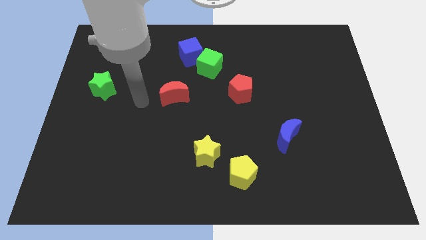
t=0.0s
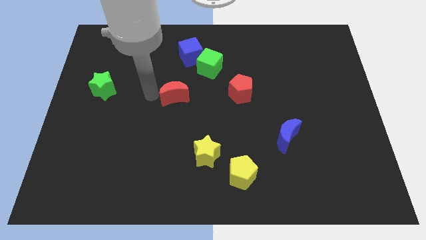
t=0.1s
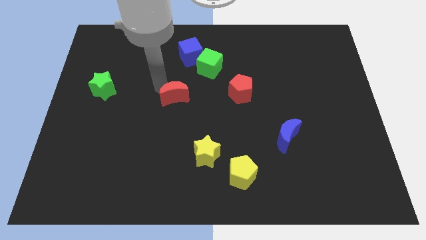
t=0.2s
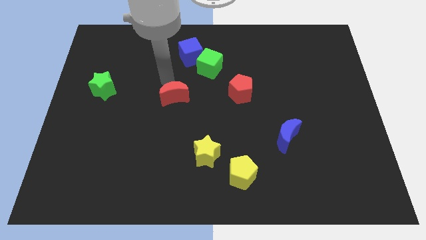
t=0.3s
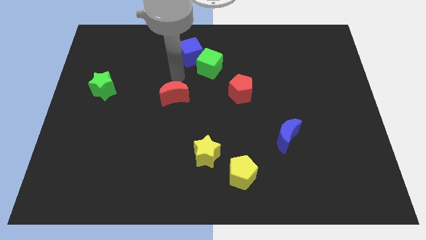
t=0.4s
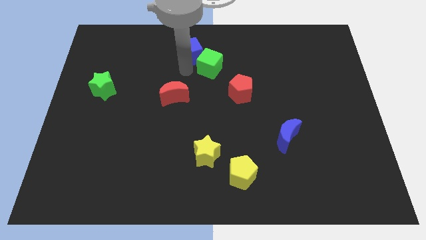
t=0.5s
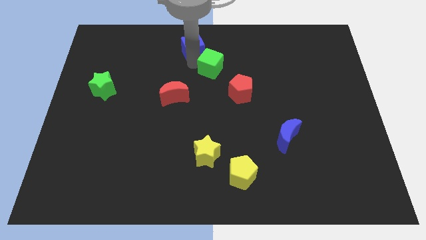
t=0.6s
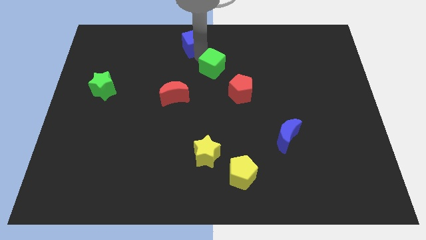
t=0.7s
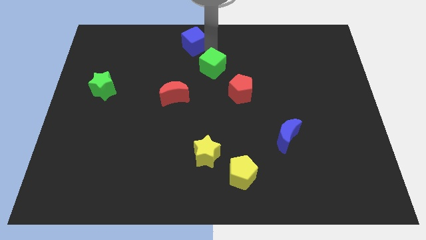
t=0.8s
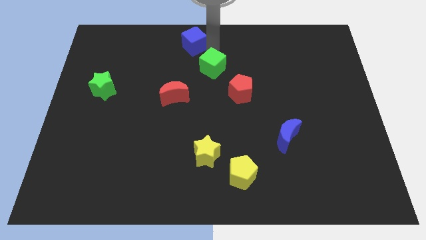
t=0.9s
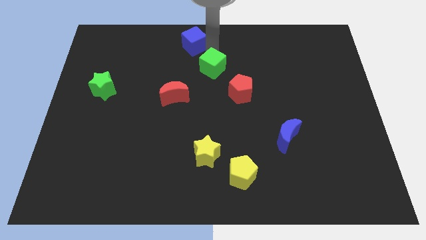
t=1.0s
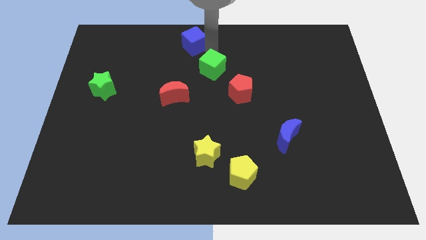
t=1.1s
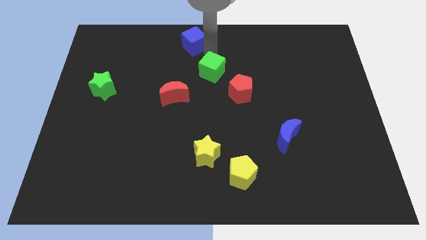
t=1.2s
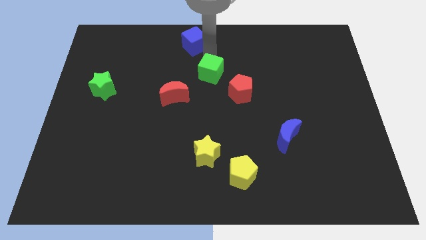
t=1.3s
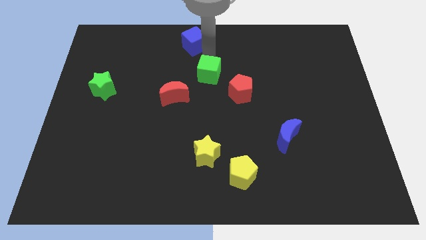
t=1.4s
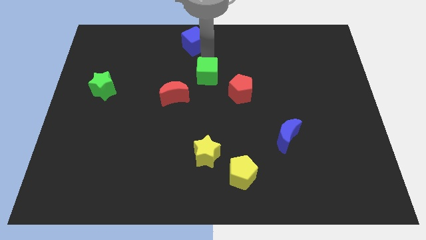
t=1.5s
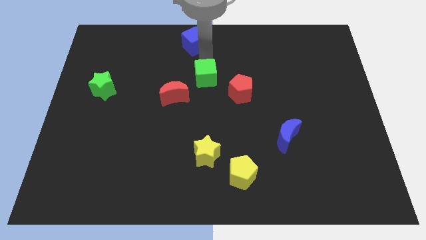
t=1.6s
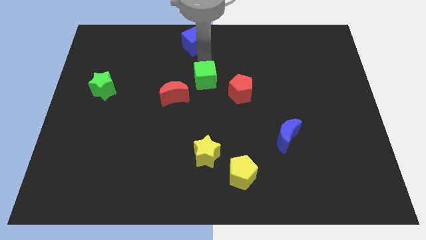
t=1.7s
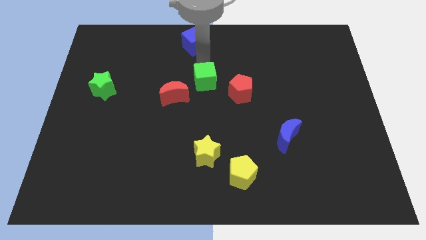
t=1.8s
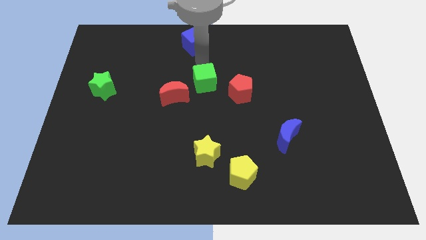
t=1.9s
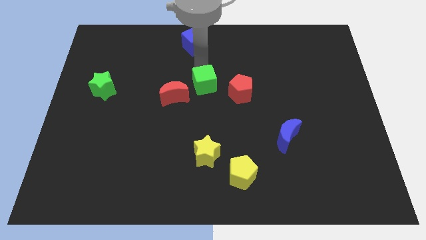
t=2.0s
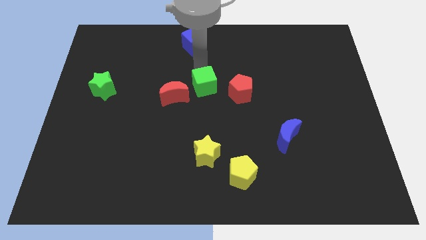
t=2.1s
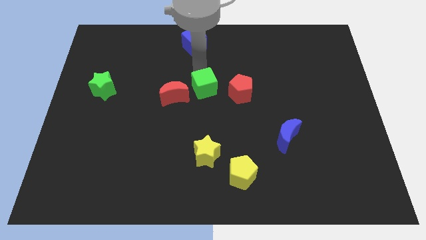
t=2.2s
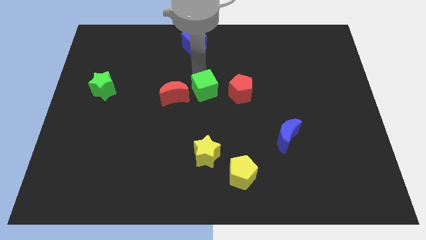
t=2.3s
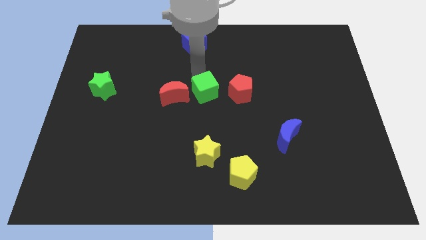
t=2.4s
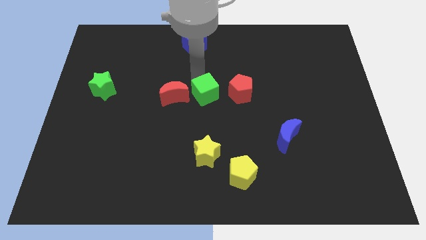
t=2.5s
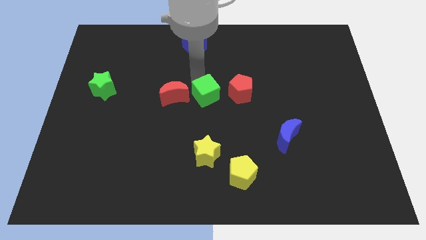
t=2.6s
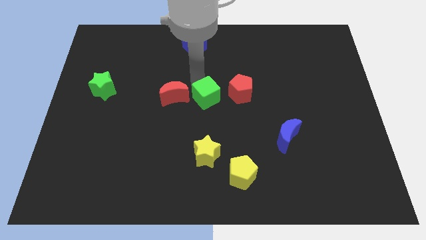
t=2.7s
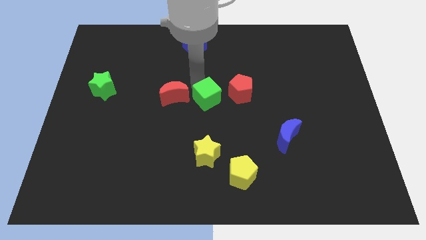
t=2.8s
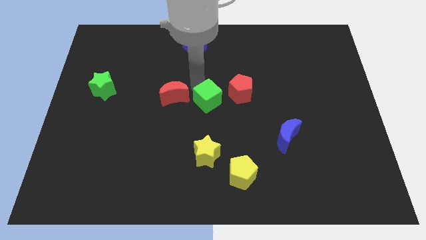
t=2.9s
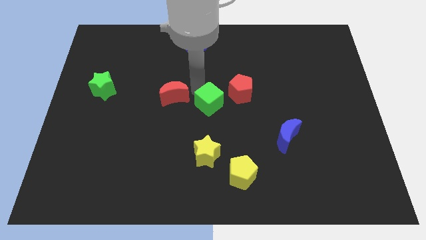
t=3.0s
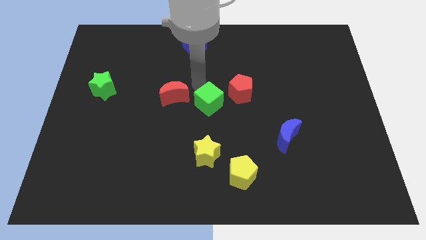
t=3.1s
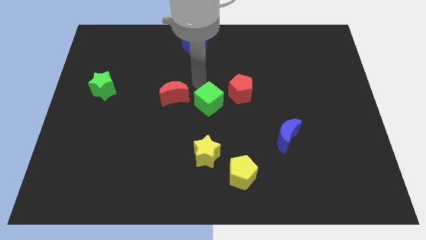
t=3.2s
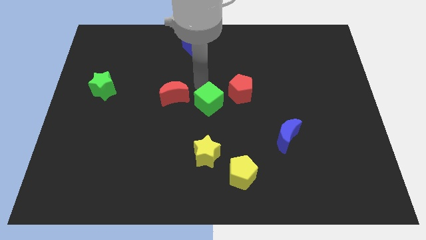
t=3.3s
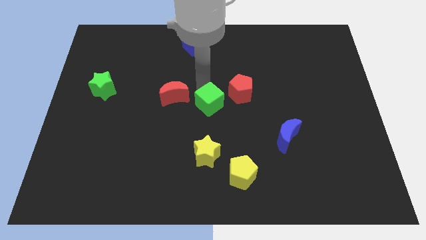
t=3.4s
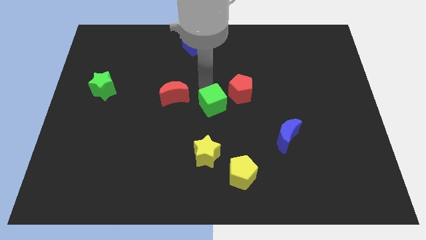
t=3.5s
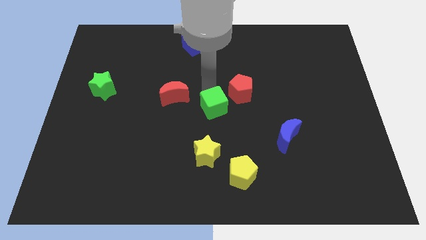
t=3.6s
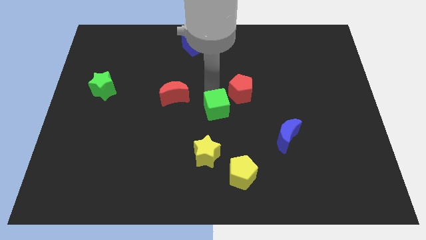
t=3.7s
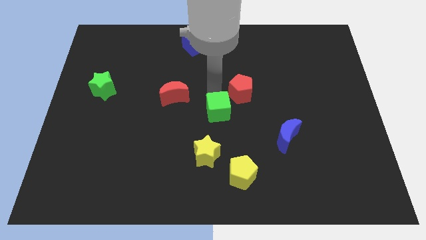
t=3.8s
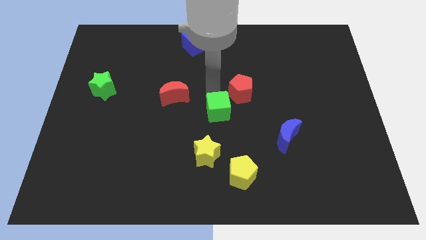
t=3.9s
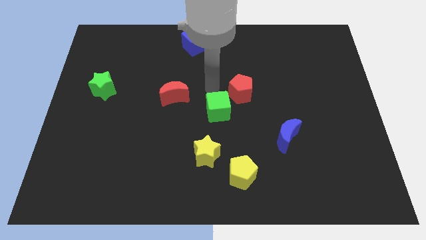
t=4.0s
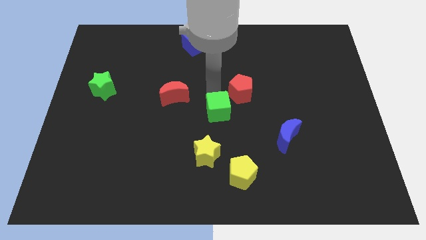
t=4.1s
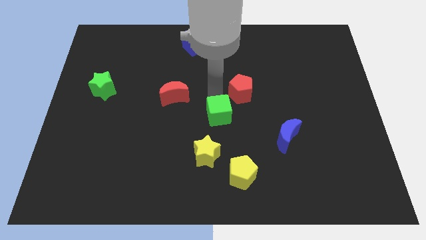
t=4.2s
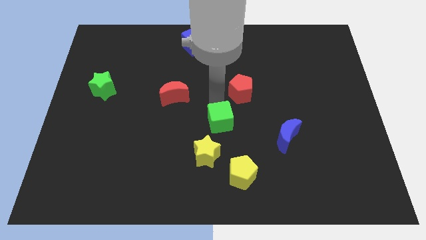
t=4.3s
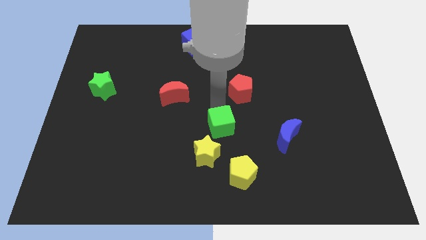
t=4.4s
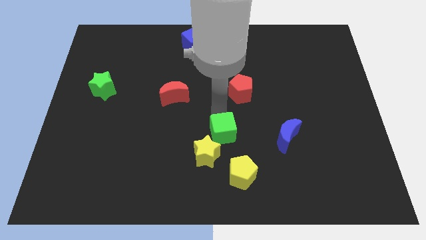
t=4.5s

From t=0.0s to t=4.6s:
push the green cube down

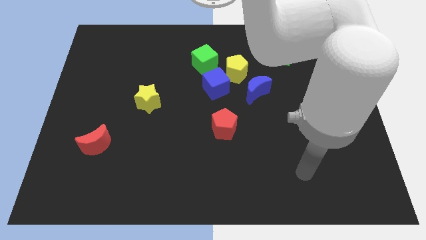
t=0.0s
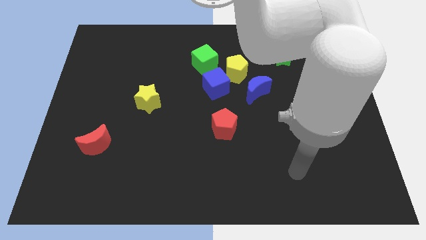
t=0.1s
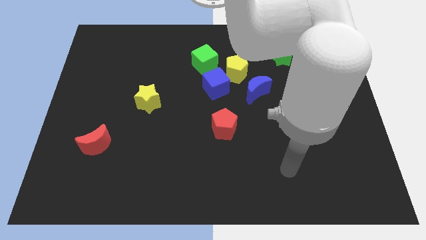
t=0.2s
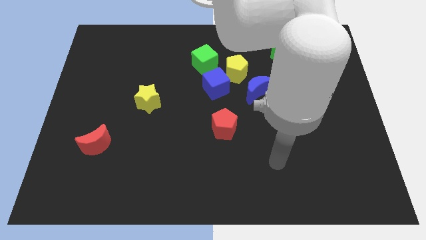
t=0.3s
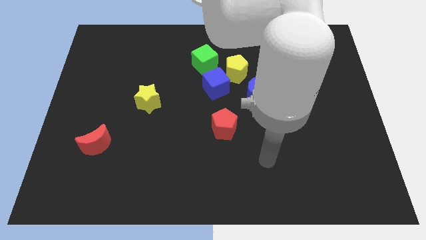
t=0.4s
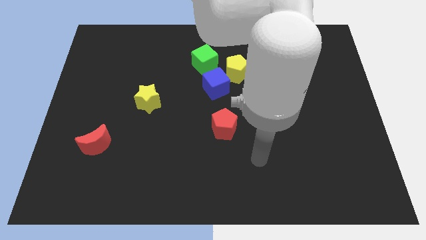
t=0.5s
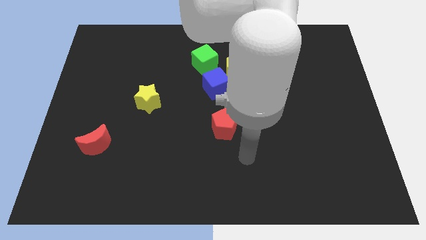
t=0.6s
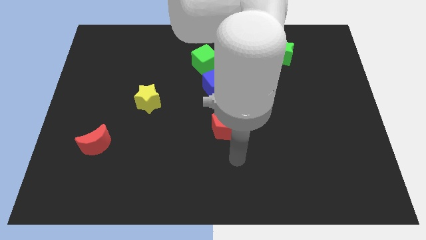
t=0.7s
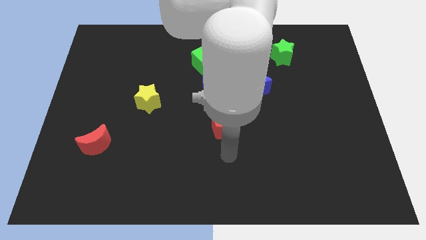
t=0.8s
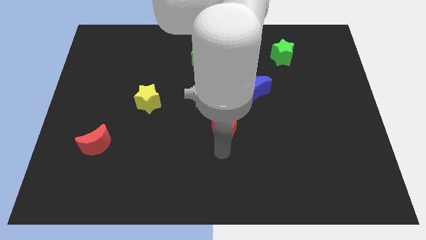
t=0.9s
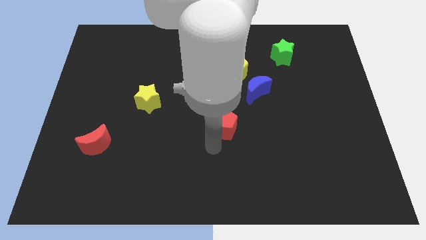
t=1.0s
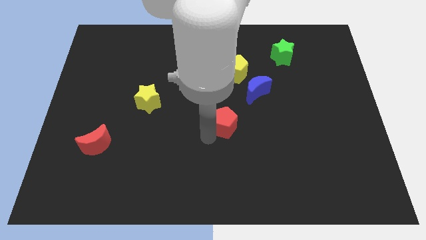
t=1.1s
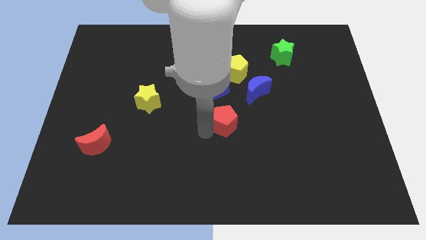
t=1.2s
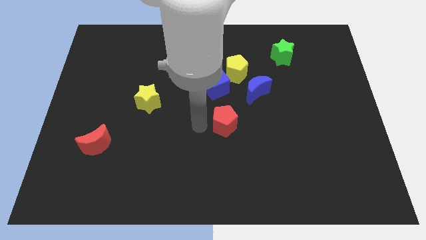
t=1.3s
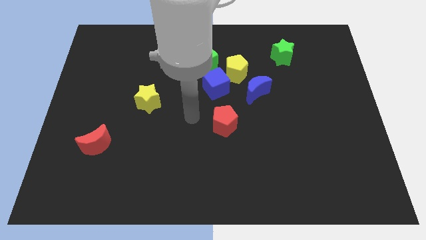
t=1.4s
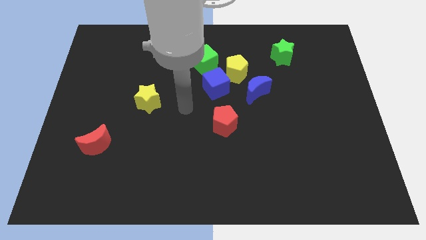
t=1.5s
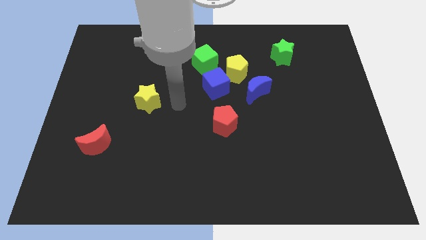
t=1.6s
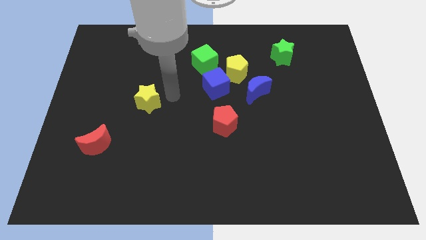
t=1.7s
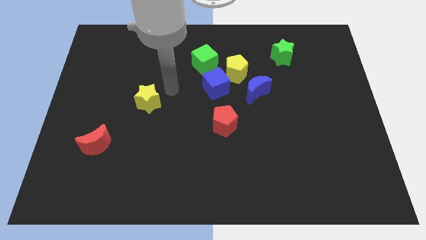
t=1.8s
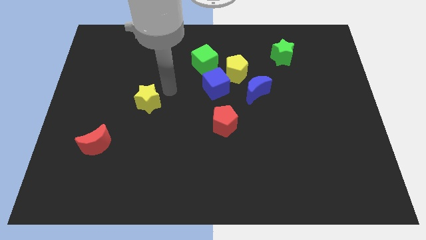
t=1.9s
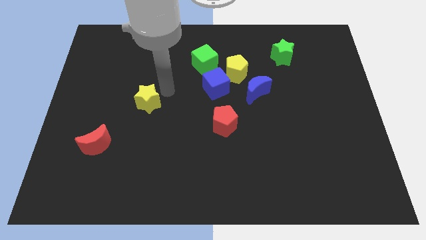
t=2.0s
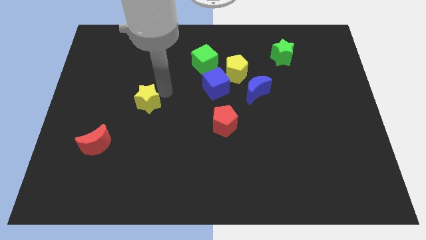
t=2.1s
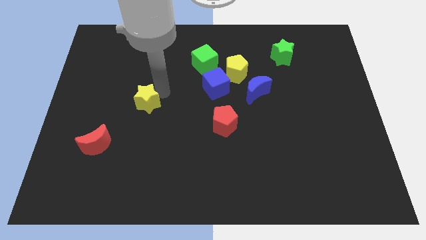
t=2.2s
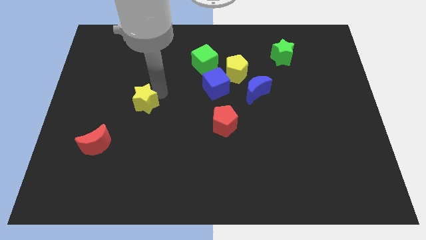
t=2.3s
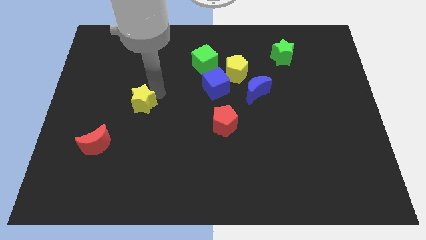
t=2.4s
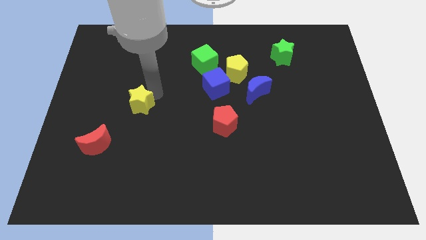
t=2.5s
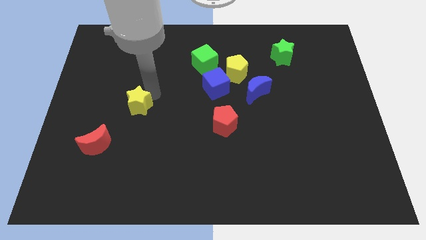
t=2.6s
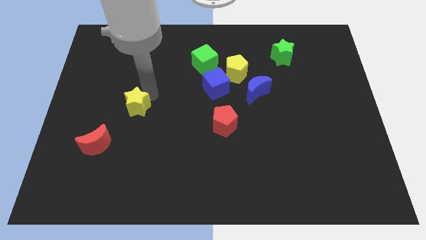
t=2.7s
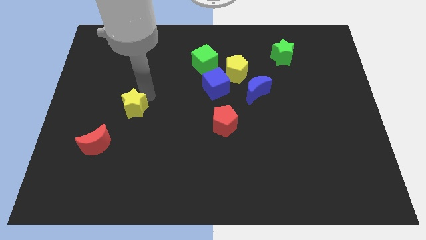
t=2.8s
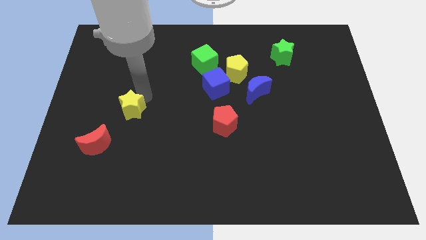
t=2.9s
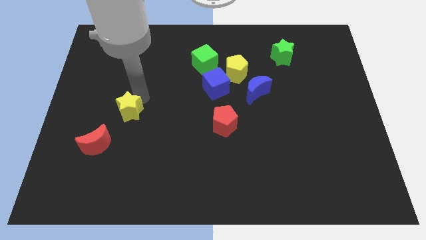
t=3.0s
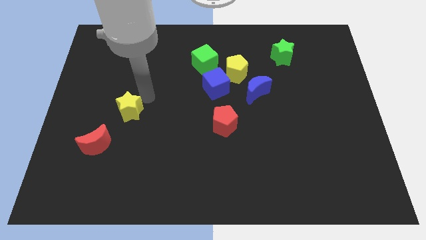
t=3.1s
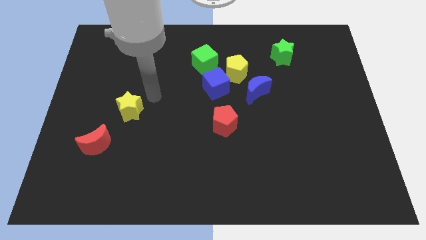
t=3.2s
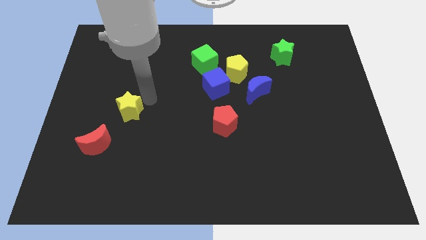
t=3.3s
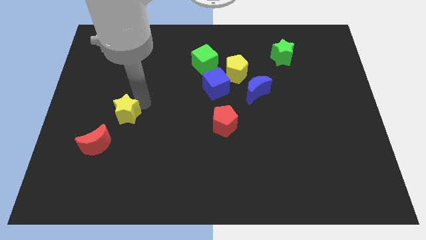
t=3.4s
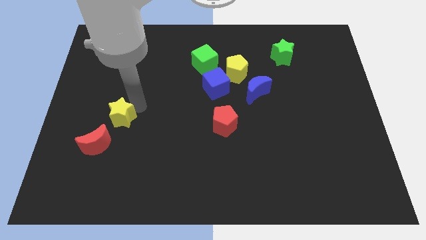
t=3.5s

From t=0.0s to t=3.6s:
slightly move the yellow star down and to the left
